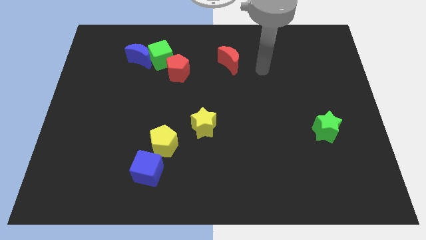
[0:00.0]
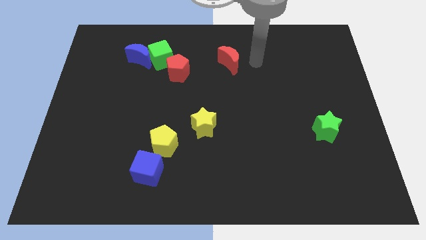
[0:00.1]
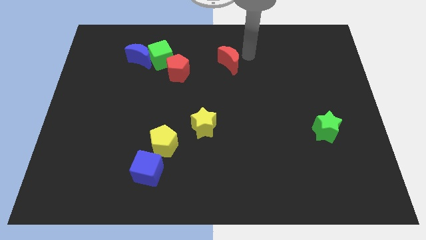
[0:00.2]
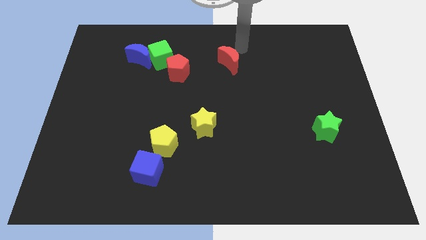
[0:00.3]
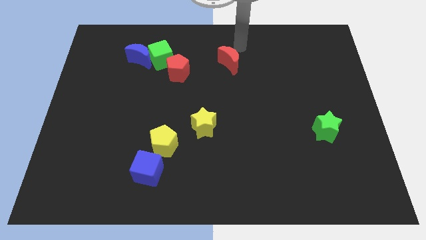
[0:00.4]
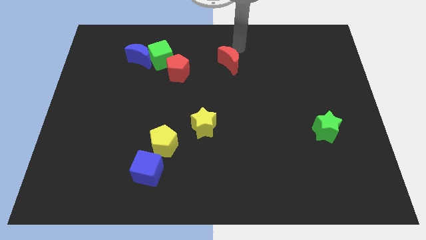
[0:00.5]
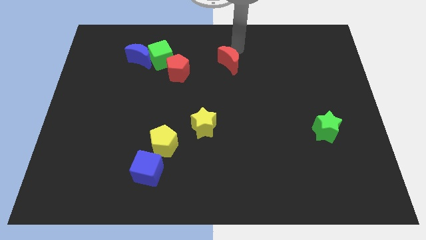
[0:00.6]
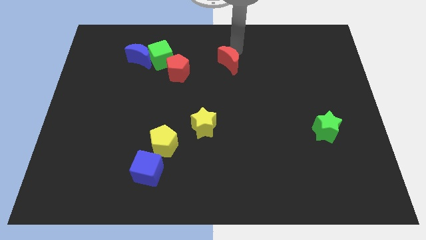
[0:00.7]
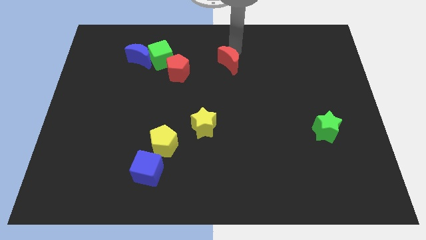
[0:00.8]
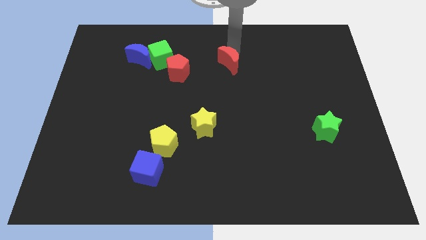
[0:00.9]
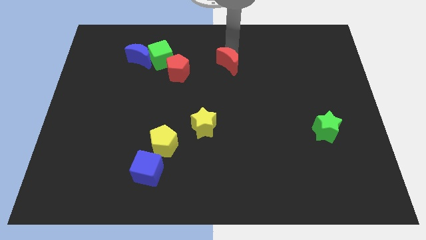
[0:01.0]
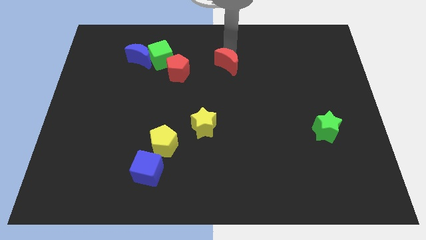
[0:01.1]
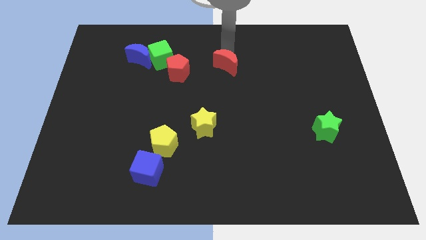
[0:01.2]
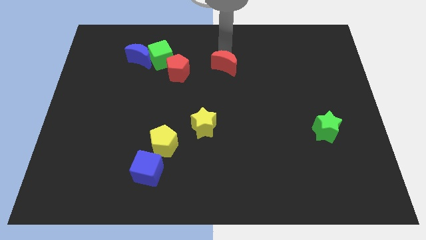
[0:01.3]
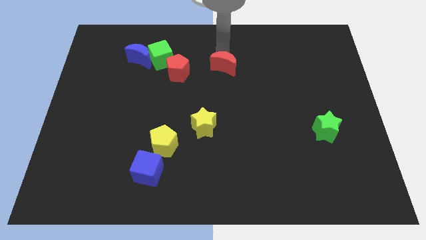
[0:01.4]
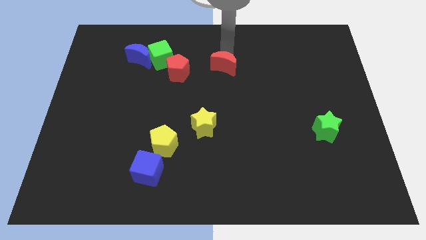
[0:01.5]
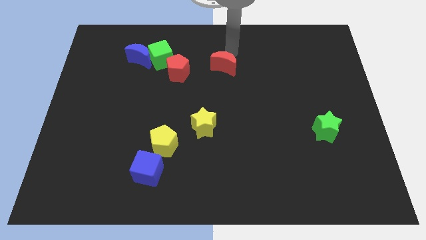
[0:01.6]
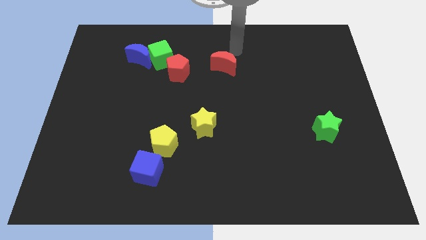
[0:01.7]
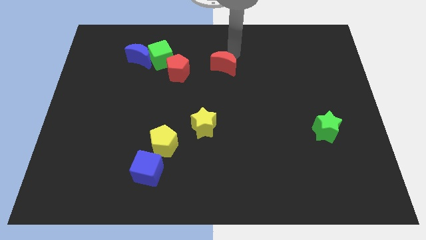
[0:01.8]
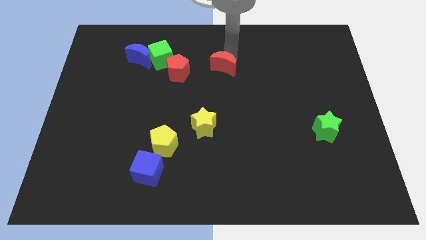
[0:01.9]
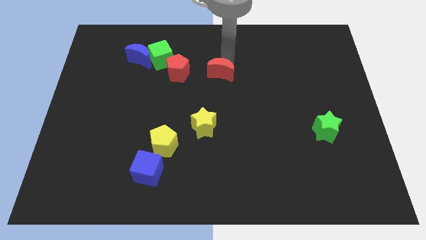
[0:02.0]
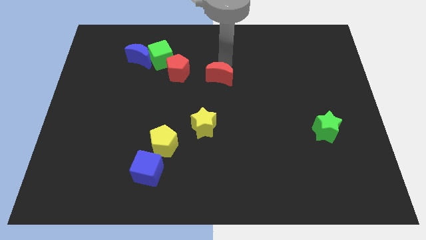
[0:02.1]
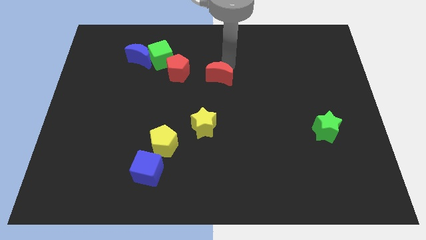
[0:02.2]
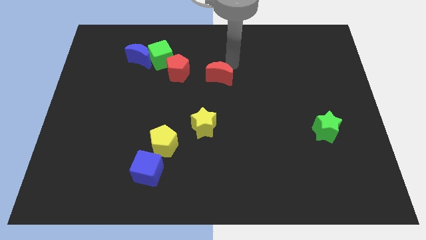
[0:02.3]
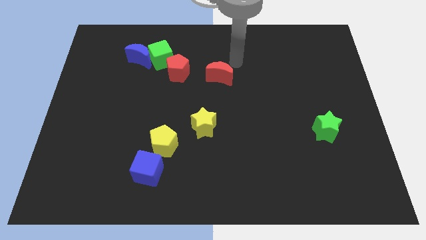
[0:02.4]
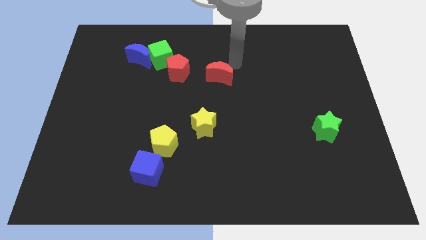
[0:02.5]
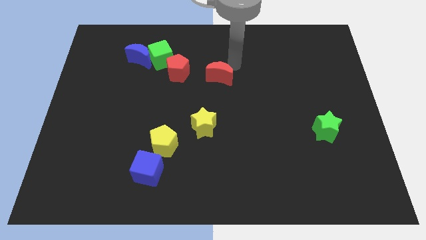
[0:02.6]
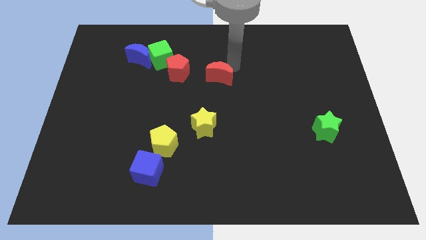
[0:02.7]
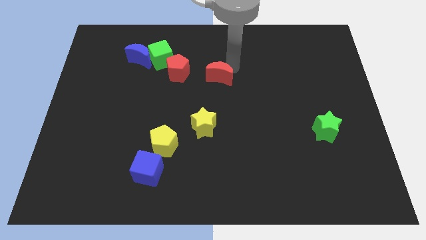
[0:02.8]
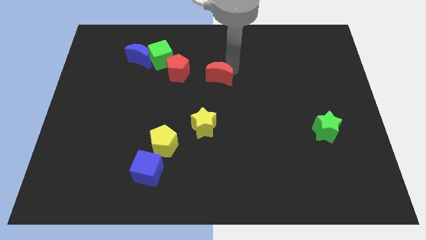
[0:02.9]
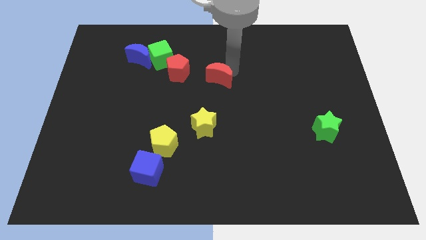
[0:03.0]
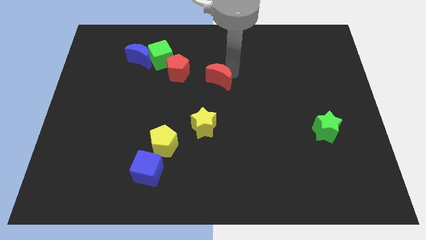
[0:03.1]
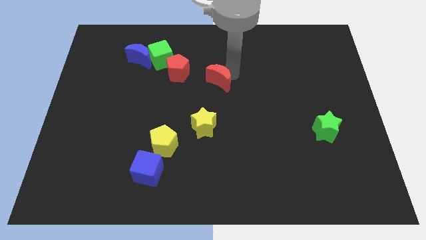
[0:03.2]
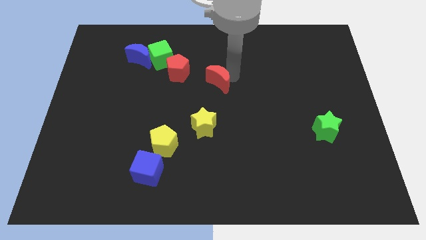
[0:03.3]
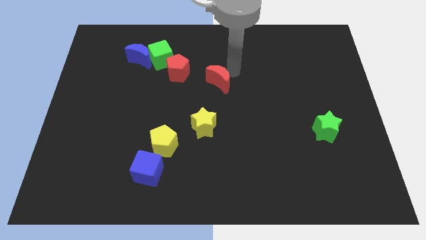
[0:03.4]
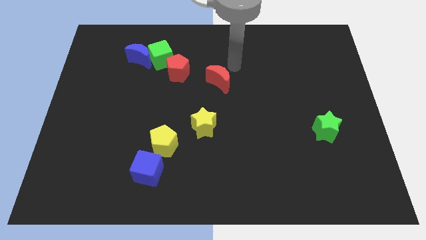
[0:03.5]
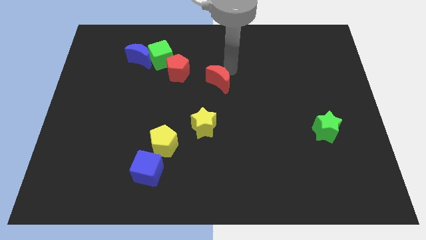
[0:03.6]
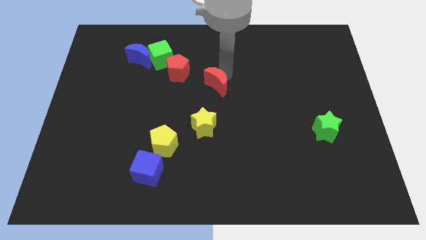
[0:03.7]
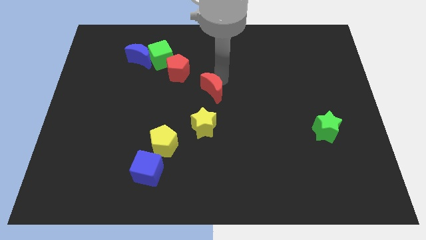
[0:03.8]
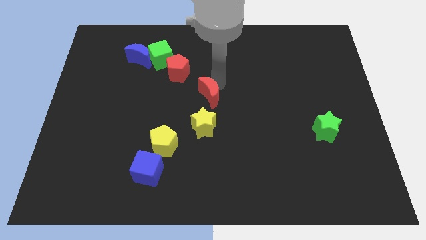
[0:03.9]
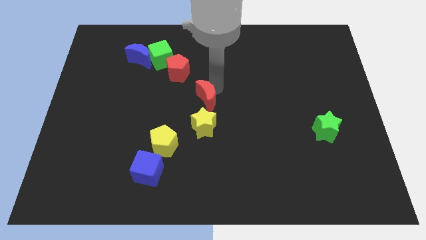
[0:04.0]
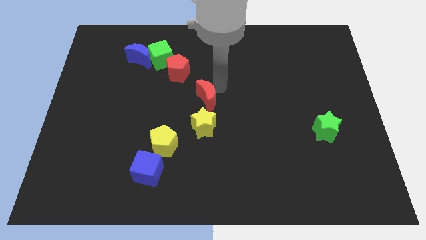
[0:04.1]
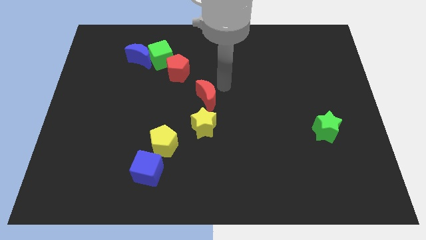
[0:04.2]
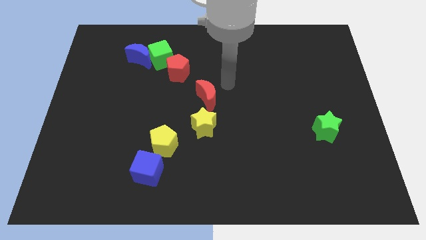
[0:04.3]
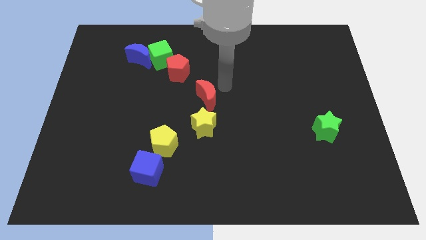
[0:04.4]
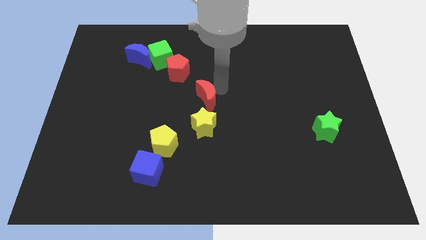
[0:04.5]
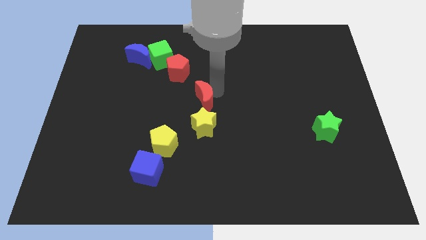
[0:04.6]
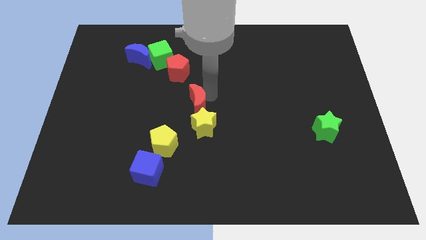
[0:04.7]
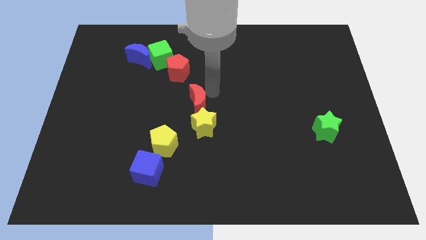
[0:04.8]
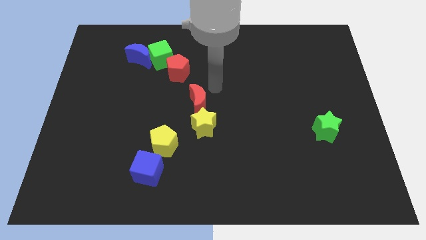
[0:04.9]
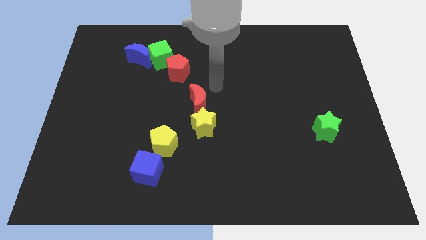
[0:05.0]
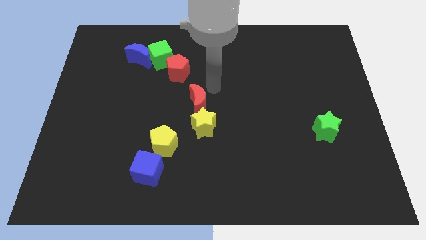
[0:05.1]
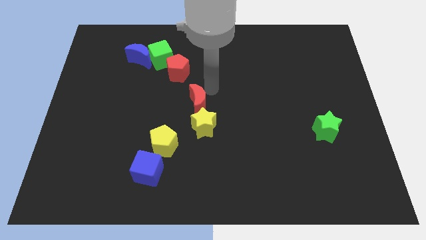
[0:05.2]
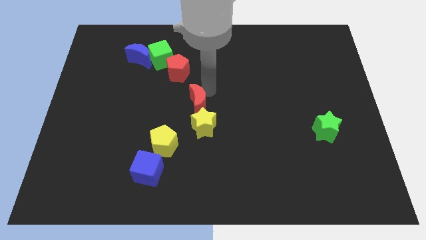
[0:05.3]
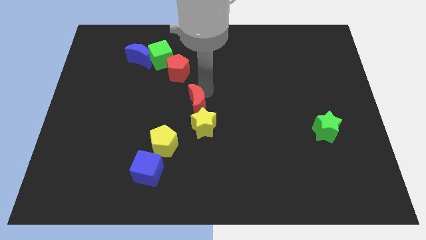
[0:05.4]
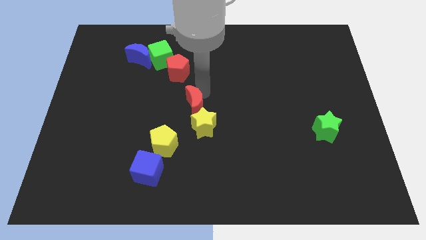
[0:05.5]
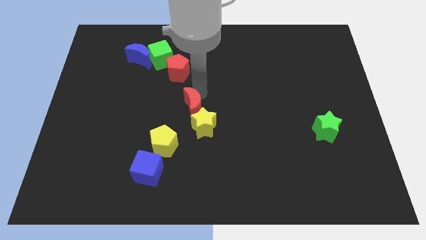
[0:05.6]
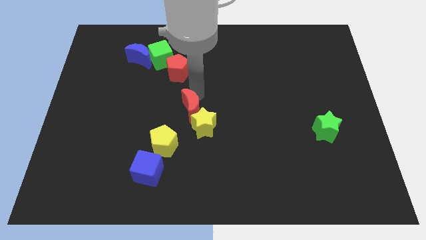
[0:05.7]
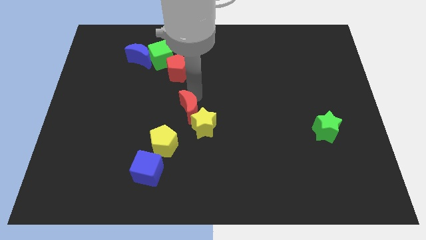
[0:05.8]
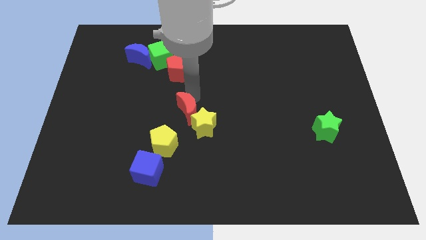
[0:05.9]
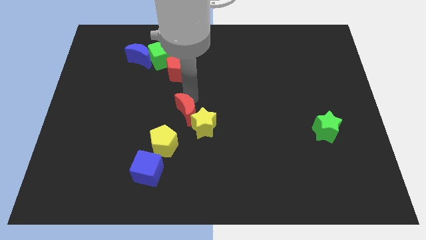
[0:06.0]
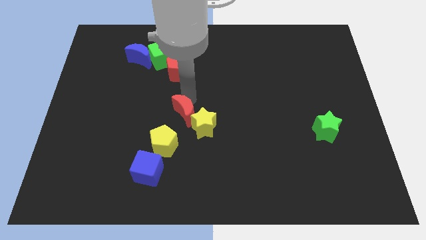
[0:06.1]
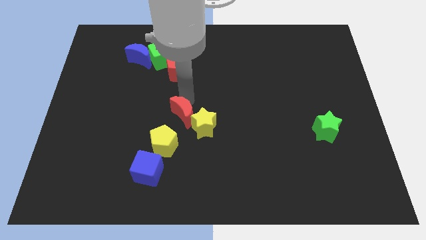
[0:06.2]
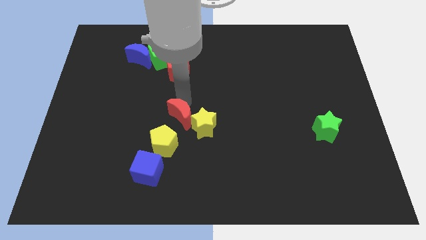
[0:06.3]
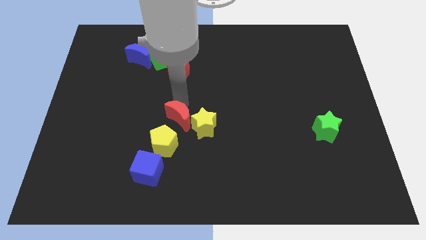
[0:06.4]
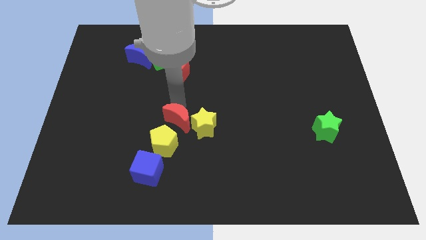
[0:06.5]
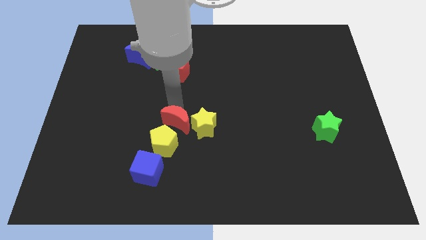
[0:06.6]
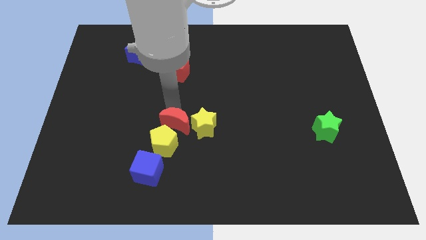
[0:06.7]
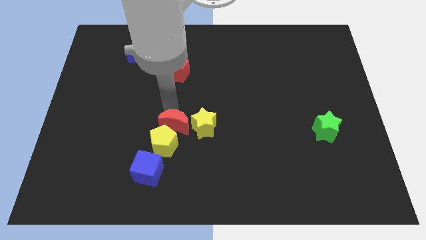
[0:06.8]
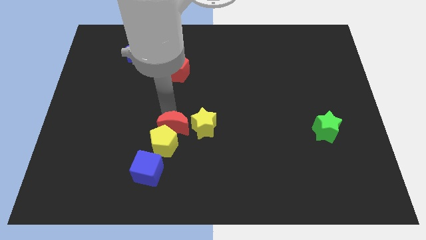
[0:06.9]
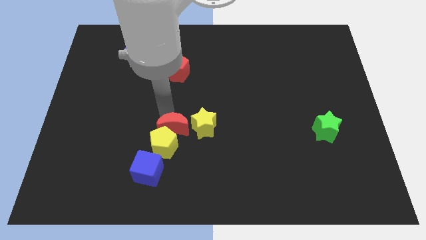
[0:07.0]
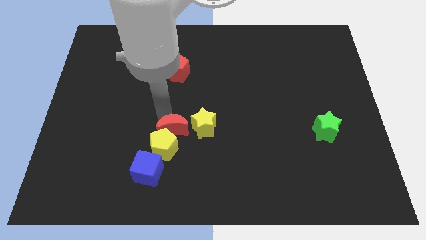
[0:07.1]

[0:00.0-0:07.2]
slide the red moon to the top right of the blue cube

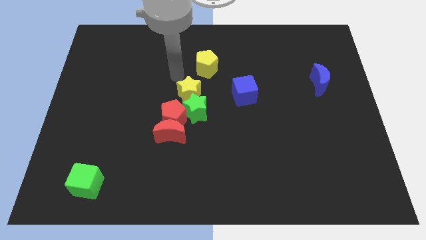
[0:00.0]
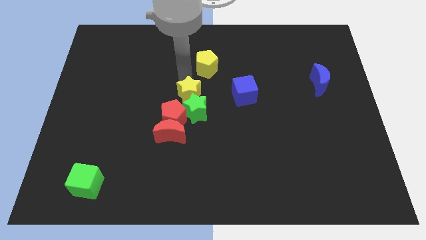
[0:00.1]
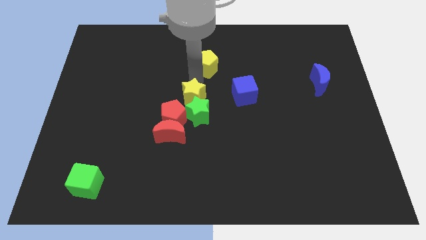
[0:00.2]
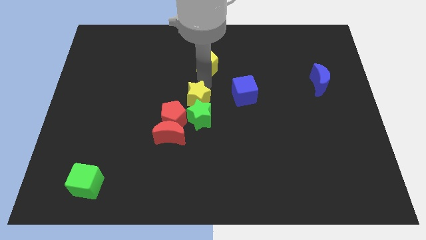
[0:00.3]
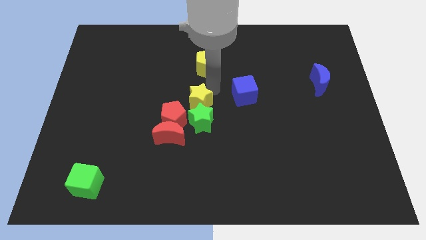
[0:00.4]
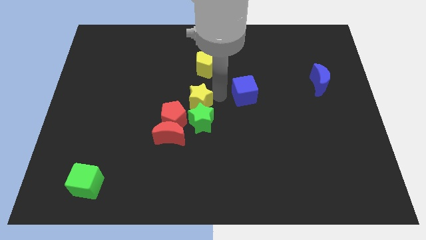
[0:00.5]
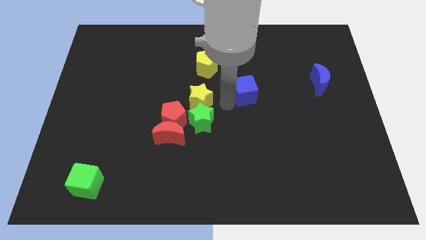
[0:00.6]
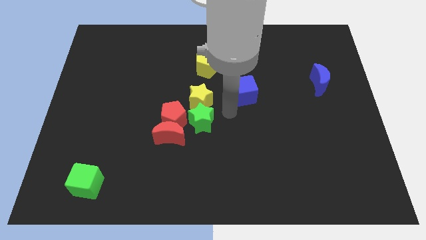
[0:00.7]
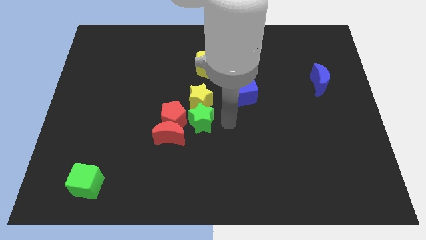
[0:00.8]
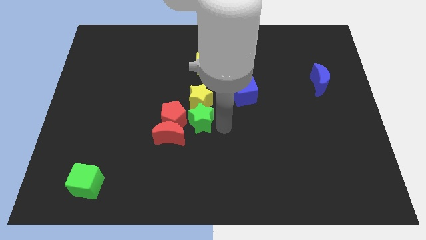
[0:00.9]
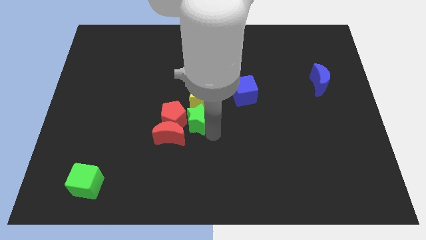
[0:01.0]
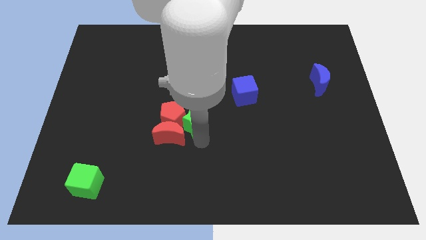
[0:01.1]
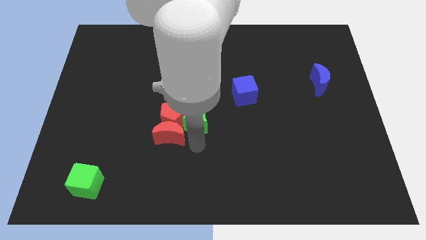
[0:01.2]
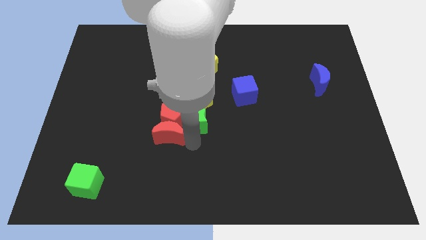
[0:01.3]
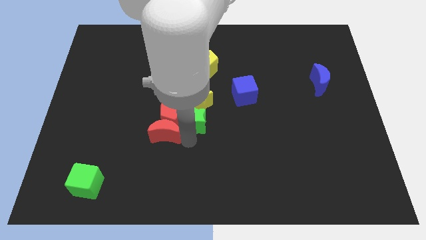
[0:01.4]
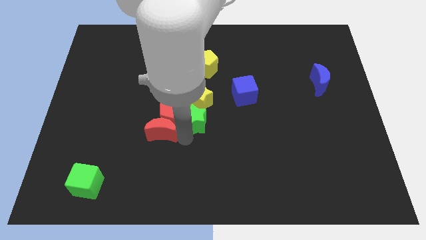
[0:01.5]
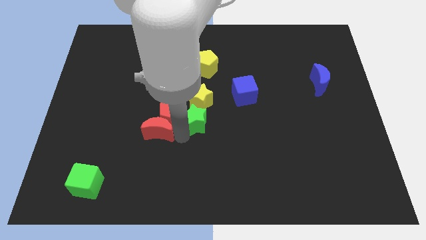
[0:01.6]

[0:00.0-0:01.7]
push the red moon to the left side of the red pentagon
